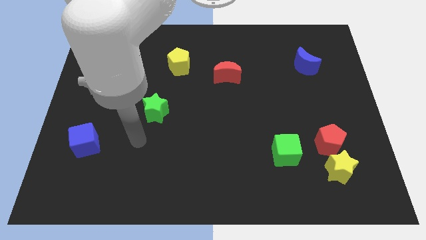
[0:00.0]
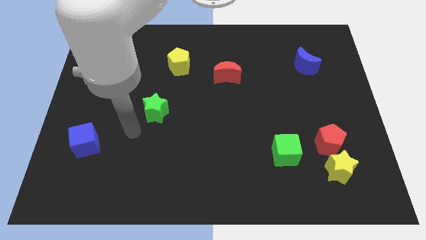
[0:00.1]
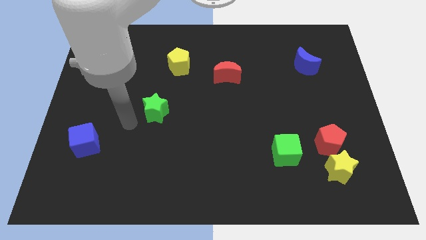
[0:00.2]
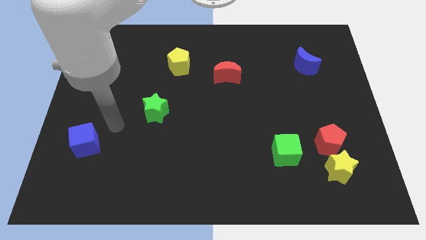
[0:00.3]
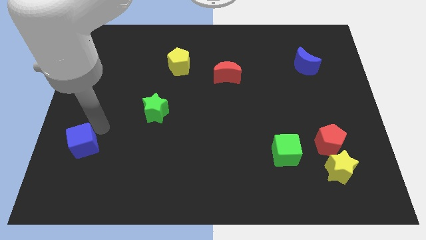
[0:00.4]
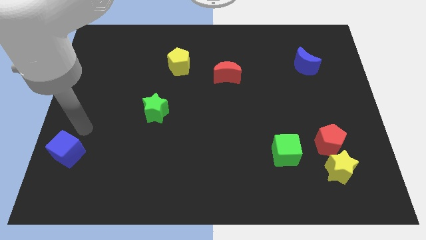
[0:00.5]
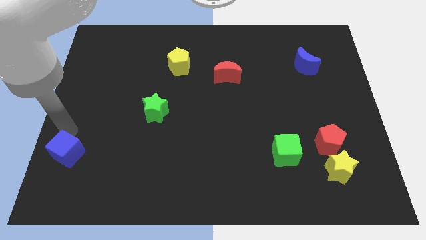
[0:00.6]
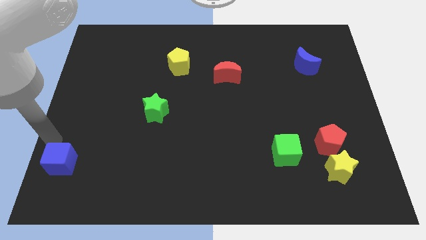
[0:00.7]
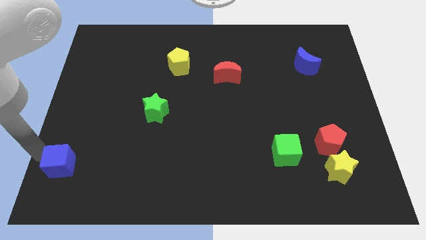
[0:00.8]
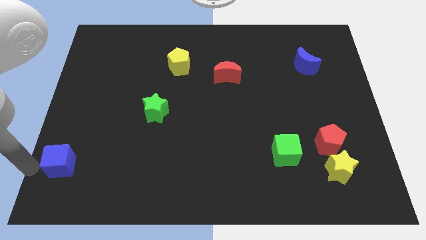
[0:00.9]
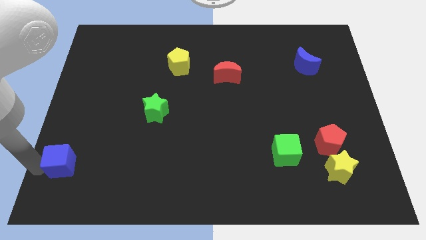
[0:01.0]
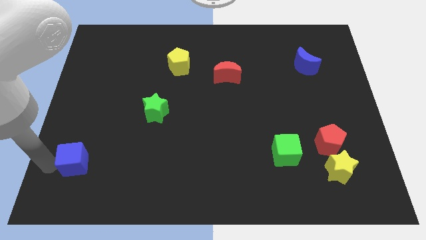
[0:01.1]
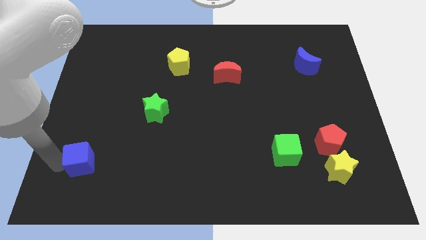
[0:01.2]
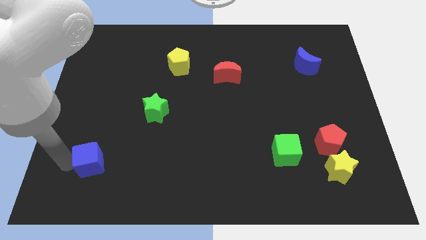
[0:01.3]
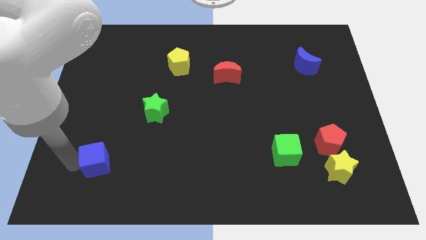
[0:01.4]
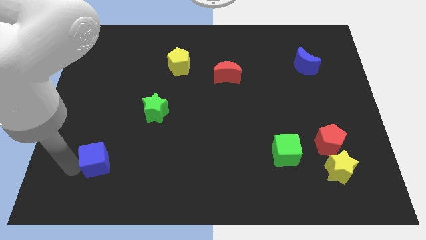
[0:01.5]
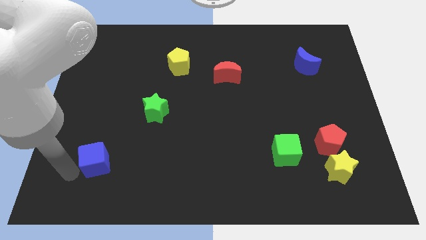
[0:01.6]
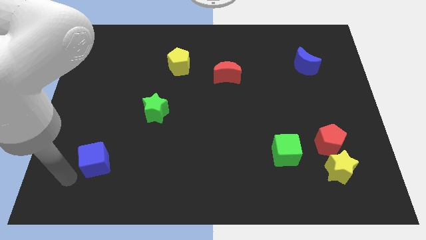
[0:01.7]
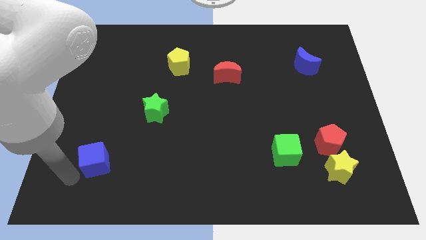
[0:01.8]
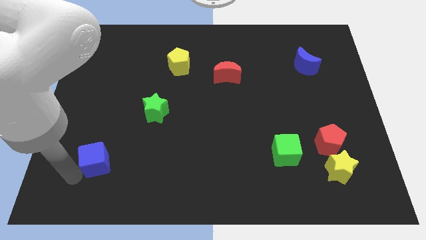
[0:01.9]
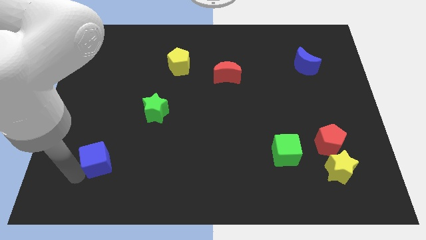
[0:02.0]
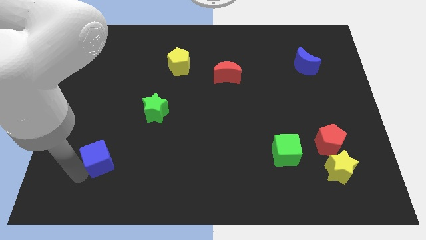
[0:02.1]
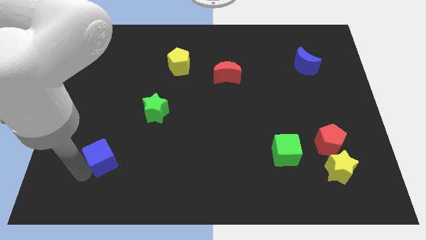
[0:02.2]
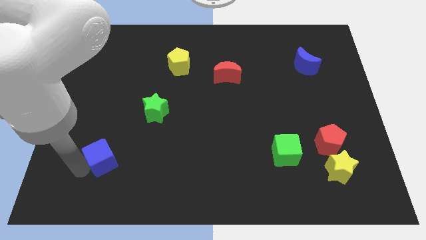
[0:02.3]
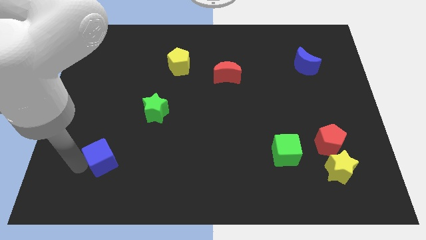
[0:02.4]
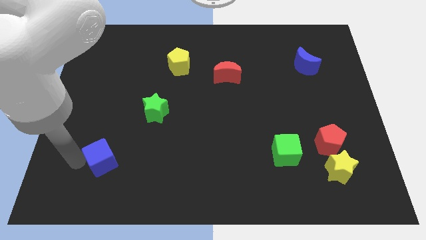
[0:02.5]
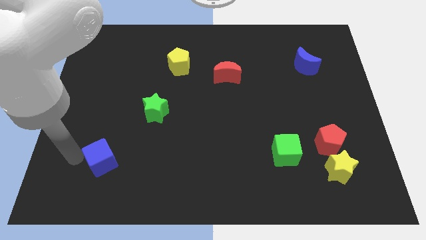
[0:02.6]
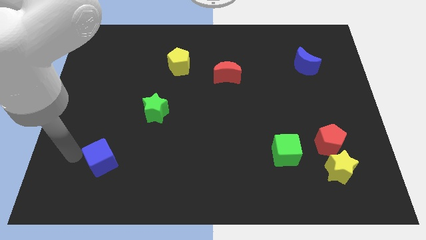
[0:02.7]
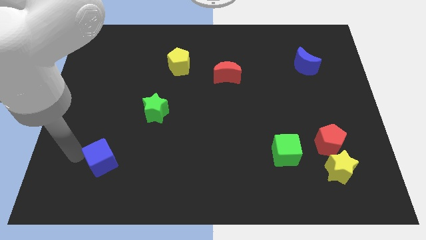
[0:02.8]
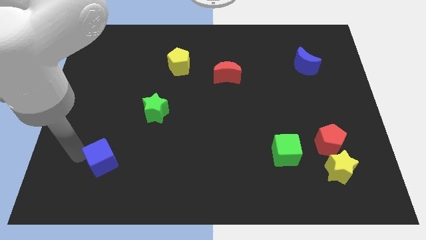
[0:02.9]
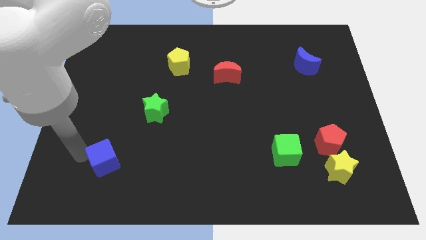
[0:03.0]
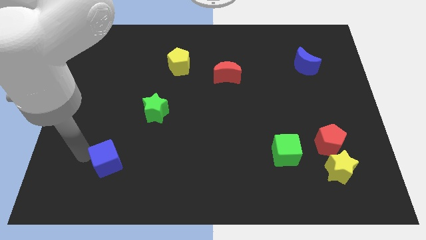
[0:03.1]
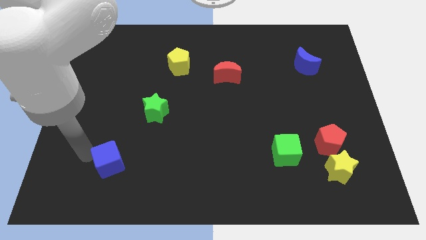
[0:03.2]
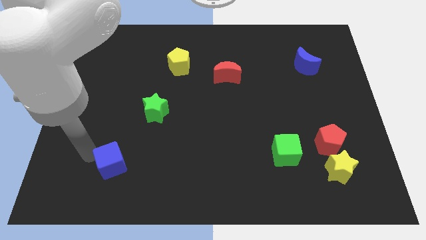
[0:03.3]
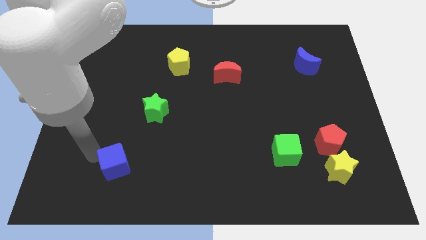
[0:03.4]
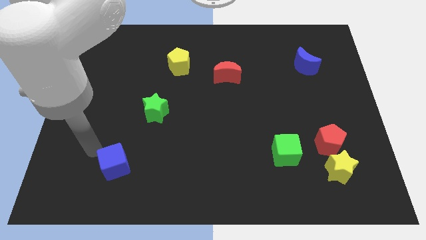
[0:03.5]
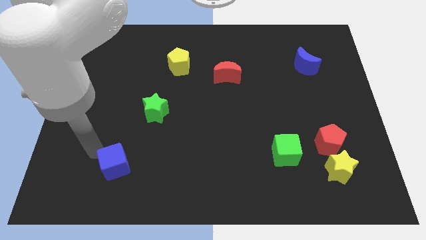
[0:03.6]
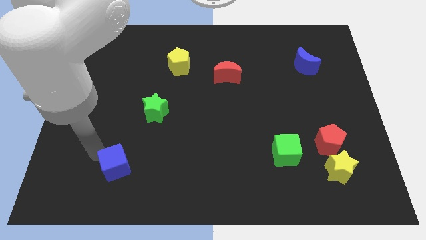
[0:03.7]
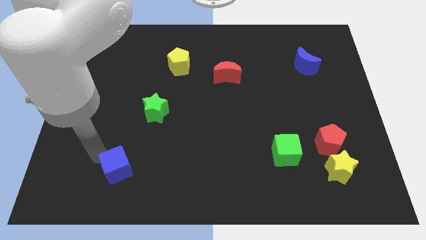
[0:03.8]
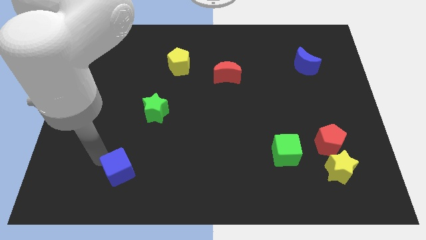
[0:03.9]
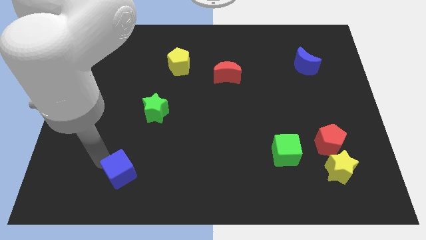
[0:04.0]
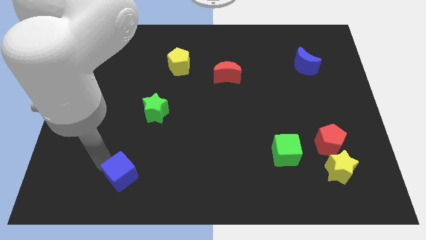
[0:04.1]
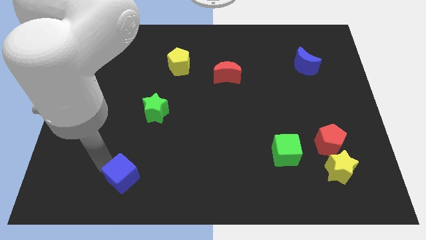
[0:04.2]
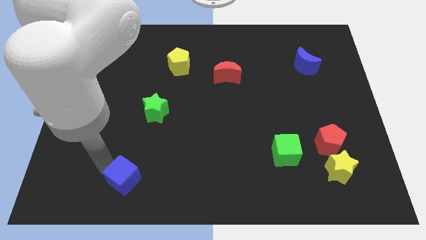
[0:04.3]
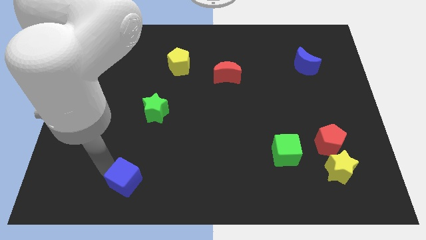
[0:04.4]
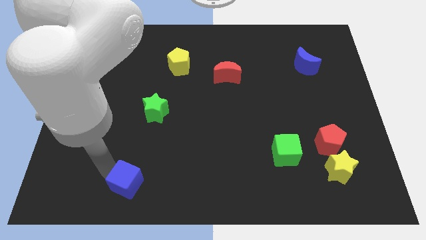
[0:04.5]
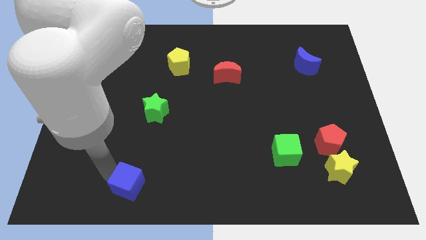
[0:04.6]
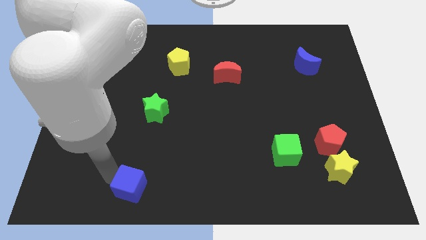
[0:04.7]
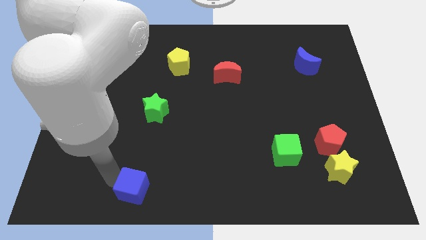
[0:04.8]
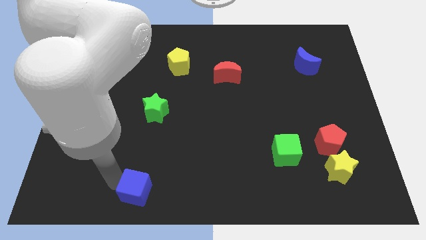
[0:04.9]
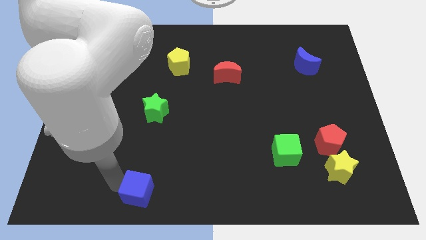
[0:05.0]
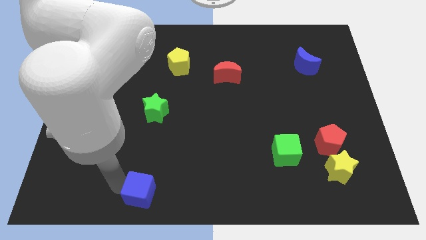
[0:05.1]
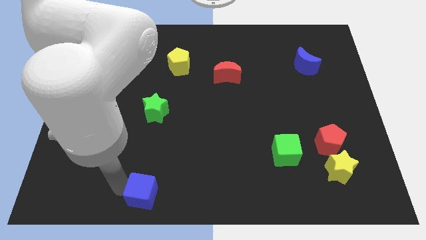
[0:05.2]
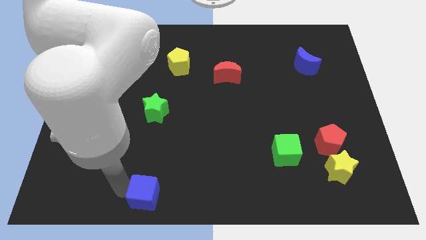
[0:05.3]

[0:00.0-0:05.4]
slide the blue cube to the bottom

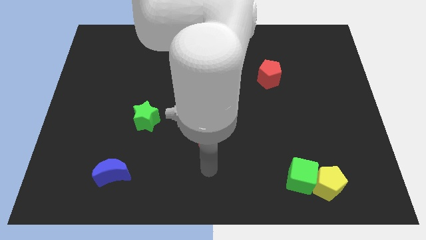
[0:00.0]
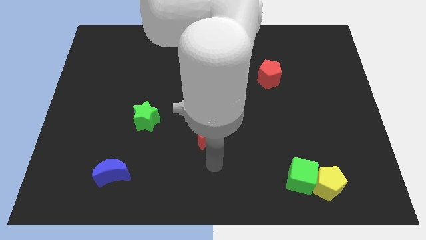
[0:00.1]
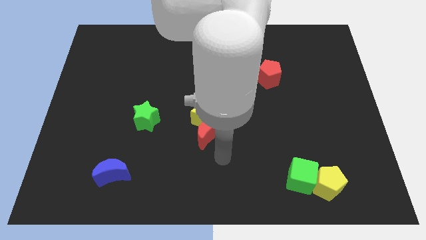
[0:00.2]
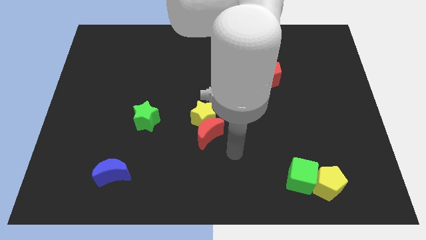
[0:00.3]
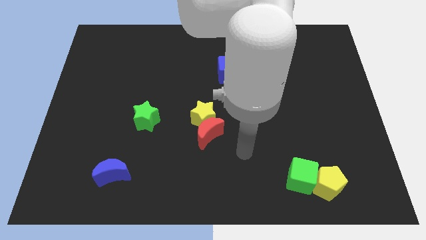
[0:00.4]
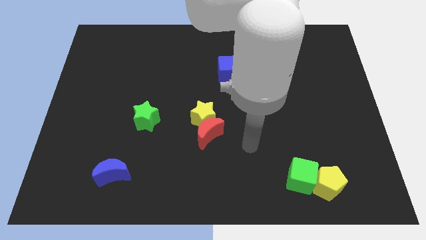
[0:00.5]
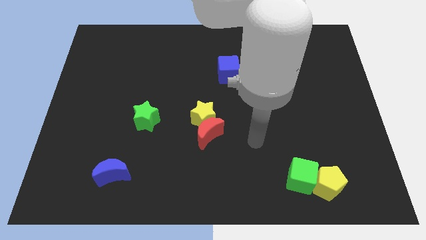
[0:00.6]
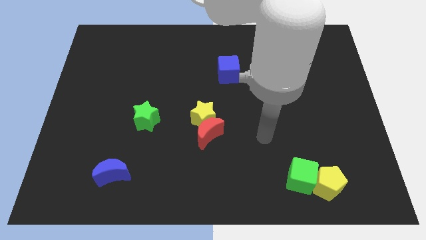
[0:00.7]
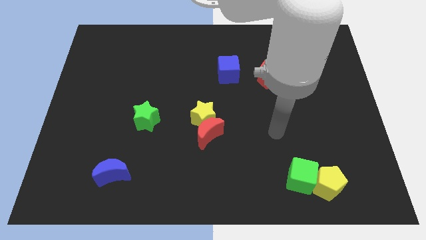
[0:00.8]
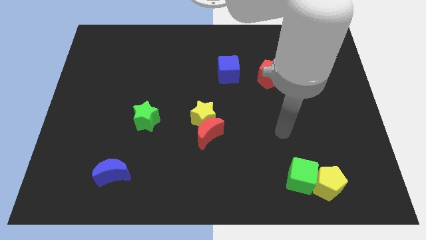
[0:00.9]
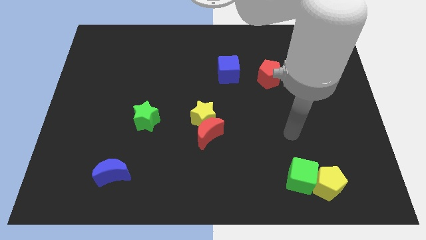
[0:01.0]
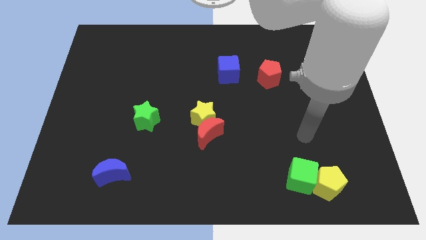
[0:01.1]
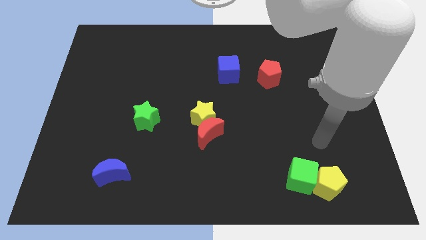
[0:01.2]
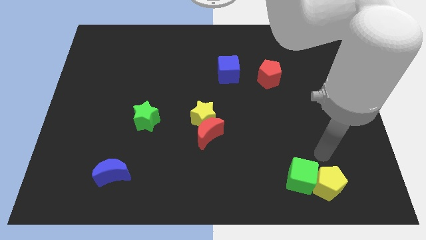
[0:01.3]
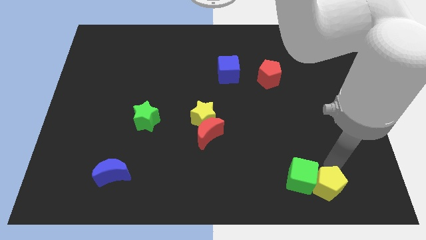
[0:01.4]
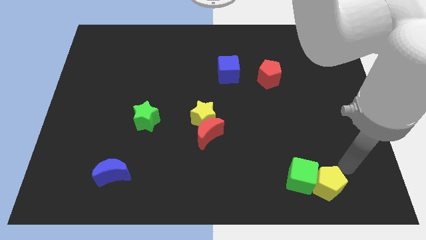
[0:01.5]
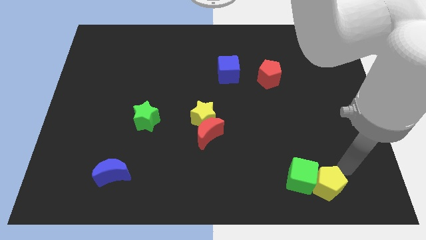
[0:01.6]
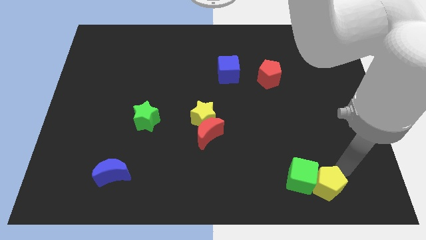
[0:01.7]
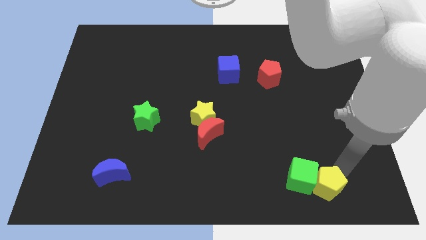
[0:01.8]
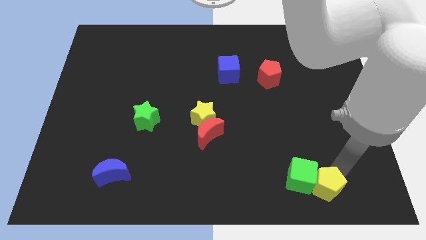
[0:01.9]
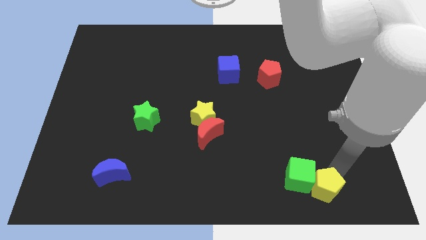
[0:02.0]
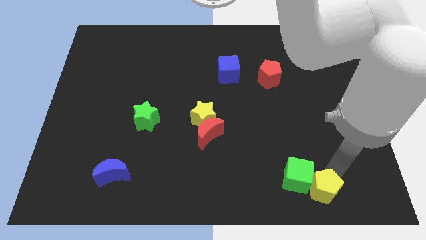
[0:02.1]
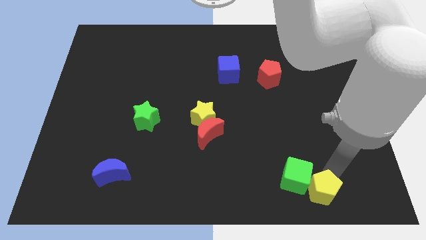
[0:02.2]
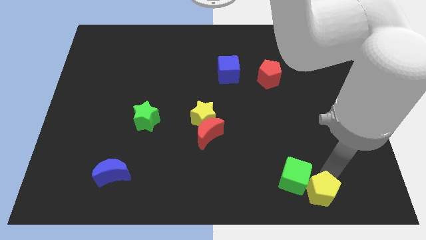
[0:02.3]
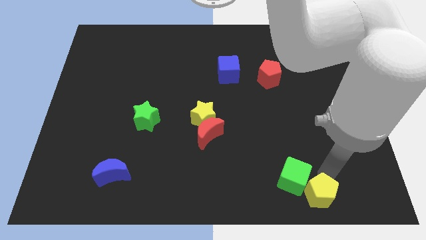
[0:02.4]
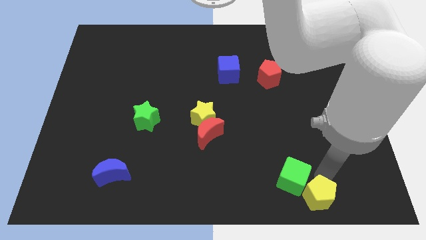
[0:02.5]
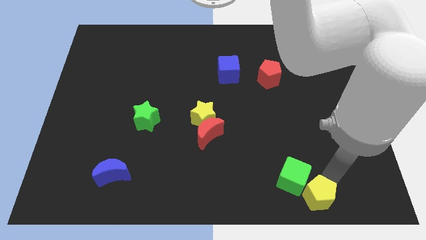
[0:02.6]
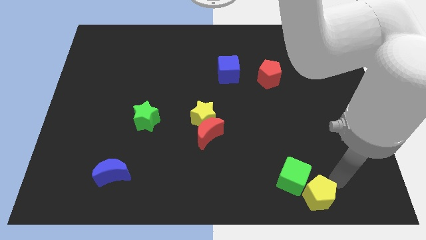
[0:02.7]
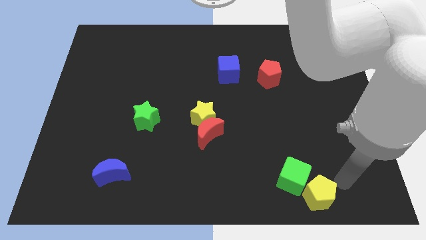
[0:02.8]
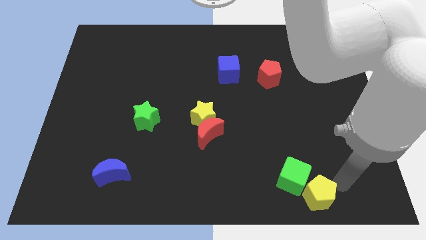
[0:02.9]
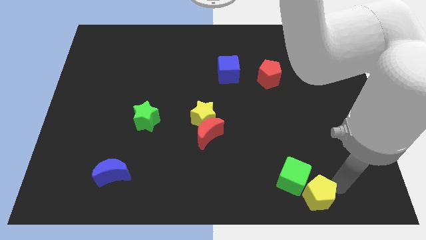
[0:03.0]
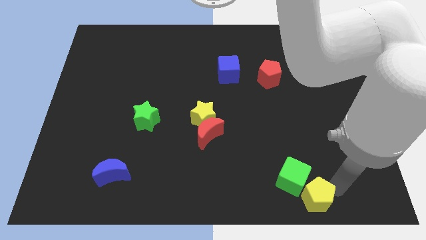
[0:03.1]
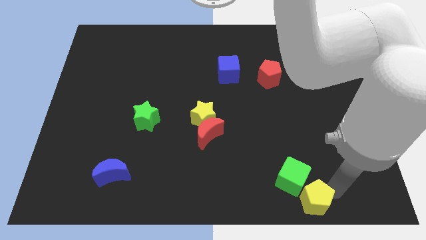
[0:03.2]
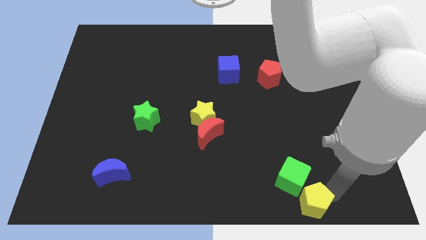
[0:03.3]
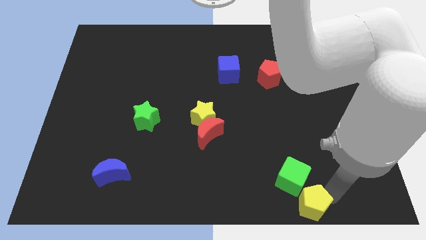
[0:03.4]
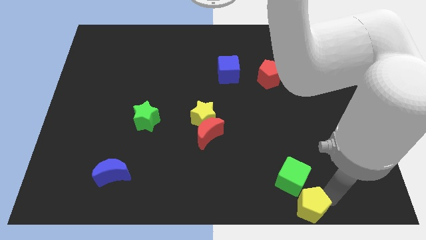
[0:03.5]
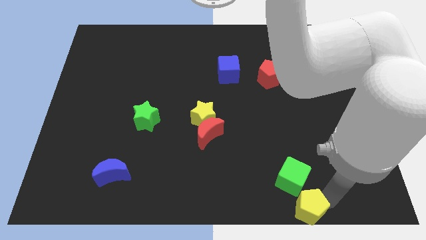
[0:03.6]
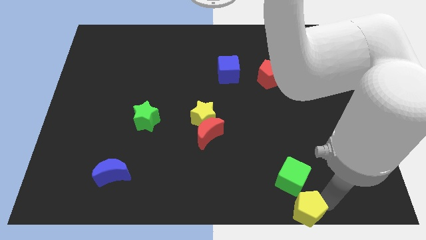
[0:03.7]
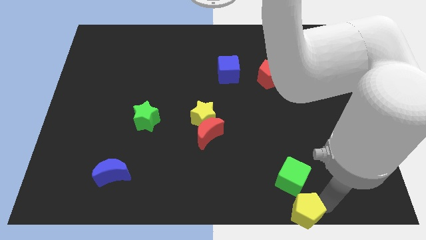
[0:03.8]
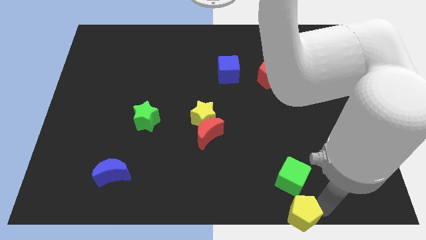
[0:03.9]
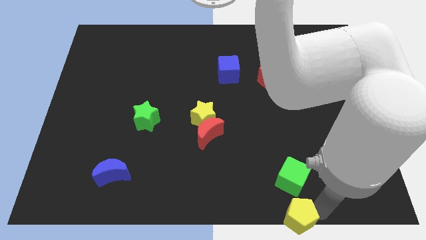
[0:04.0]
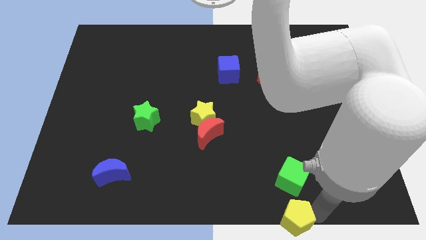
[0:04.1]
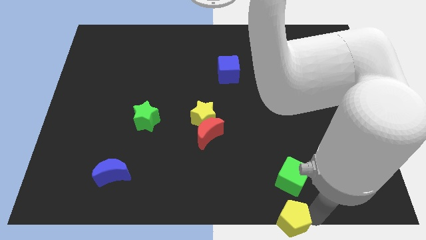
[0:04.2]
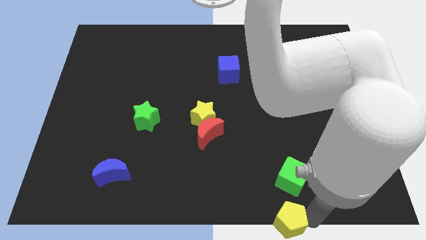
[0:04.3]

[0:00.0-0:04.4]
slide the yellow pentagon to the bottom side
